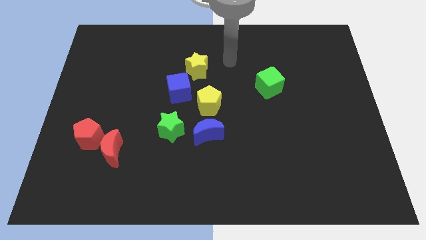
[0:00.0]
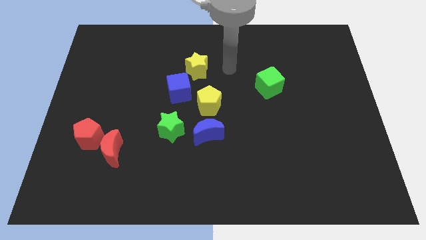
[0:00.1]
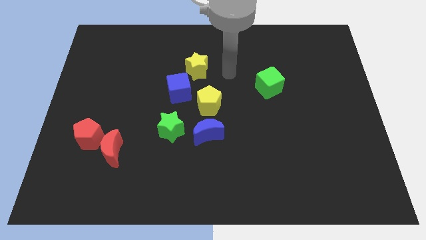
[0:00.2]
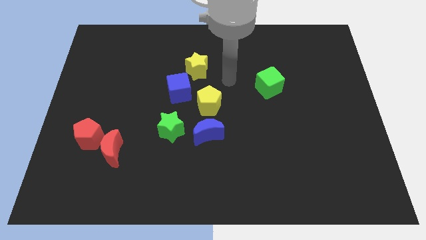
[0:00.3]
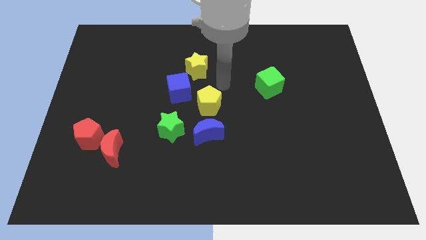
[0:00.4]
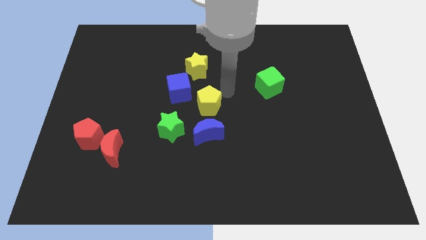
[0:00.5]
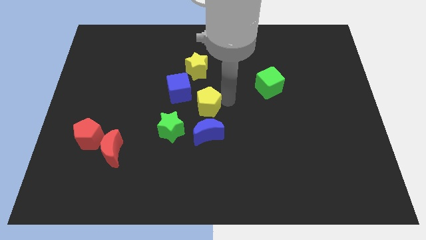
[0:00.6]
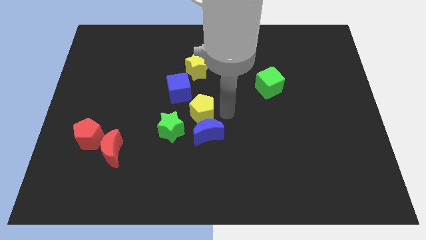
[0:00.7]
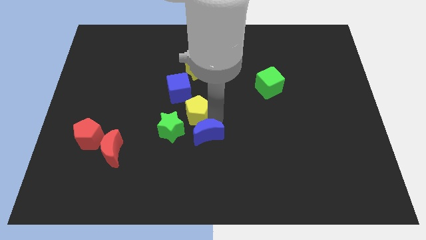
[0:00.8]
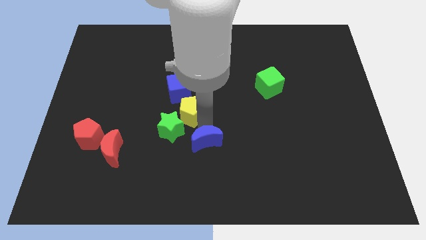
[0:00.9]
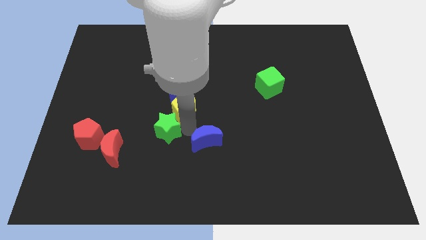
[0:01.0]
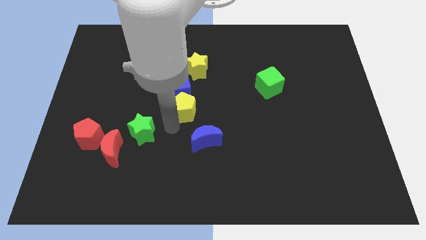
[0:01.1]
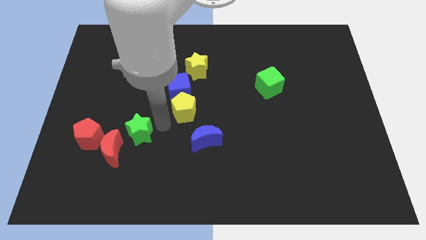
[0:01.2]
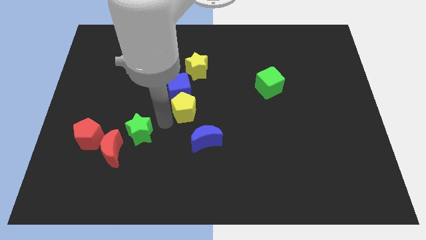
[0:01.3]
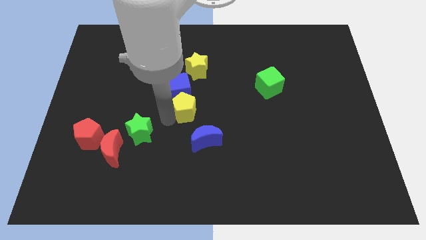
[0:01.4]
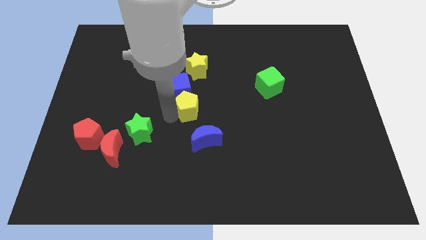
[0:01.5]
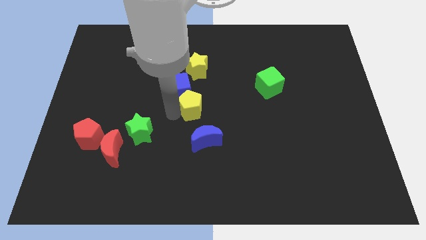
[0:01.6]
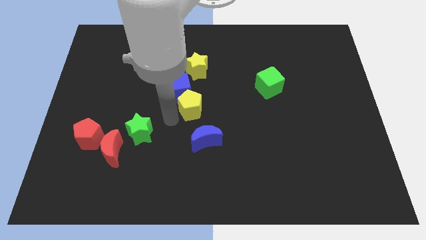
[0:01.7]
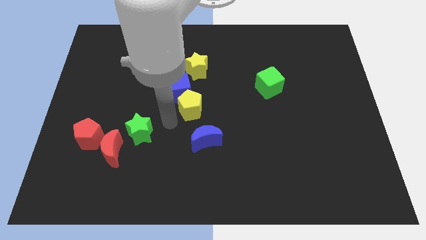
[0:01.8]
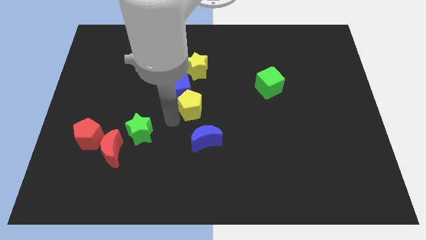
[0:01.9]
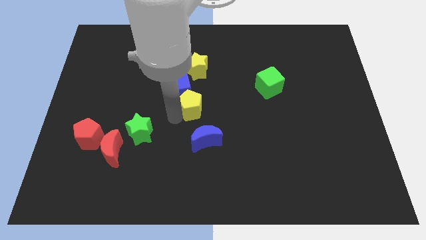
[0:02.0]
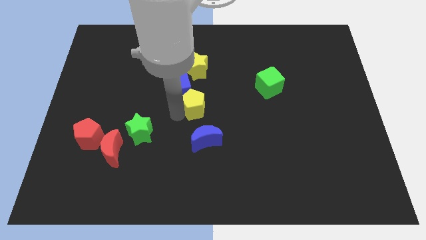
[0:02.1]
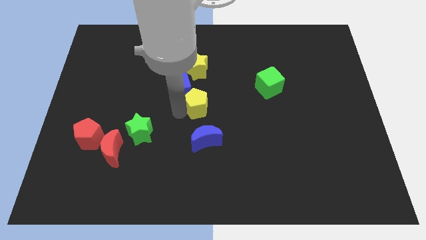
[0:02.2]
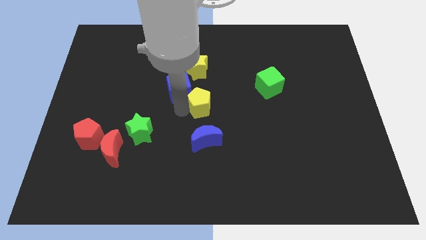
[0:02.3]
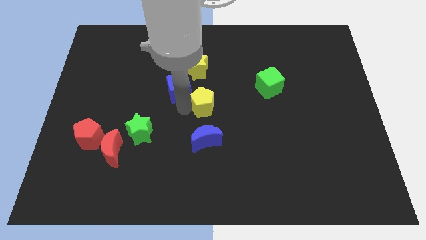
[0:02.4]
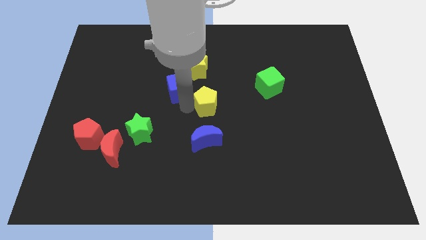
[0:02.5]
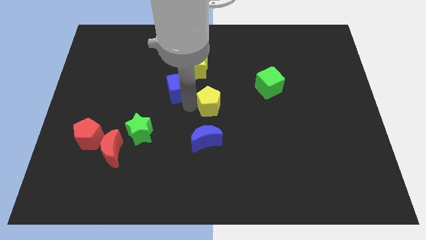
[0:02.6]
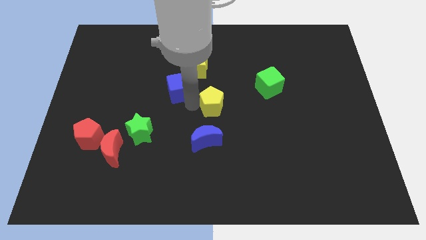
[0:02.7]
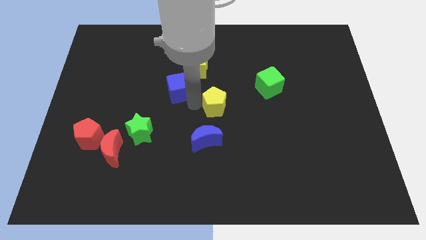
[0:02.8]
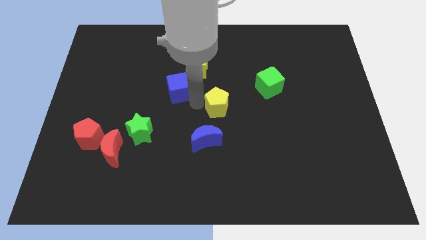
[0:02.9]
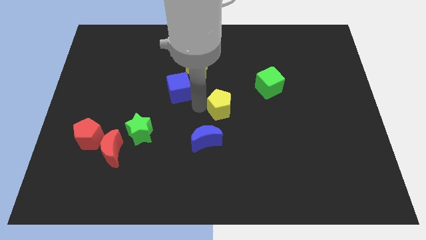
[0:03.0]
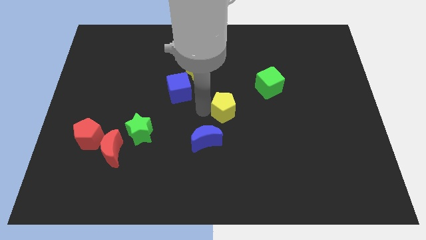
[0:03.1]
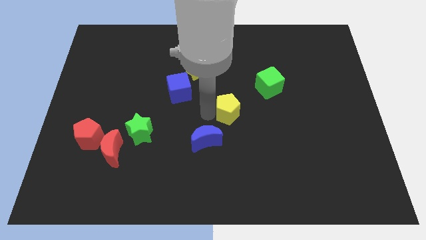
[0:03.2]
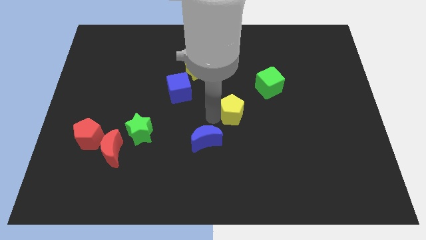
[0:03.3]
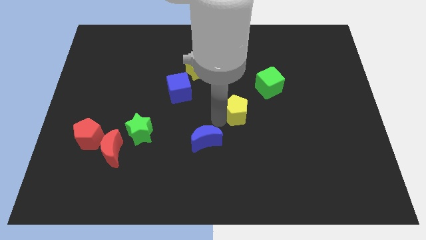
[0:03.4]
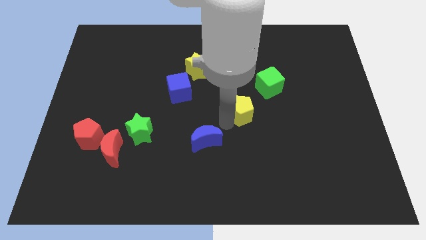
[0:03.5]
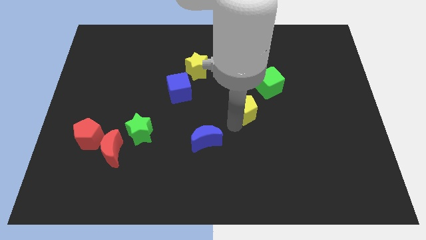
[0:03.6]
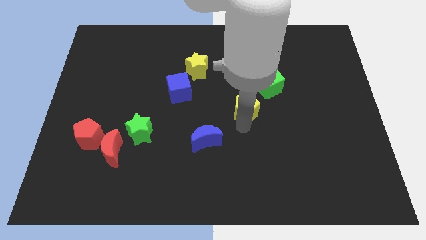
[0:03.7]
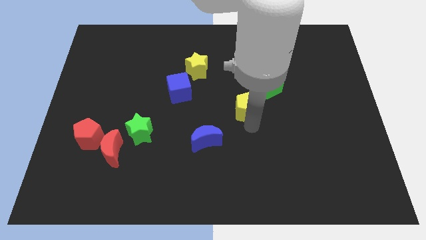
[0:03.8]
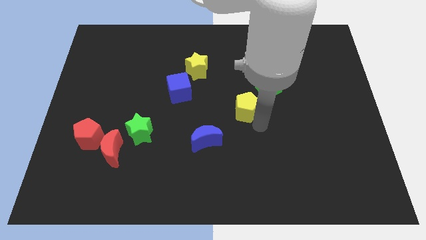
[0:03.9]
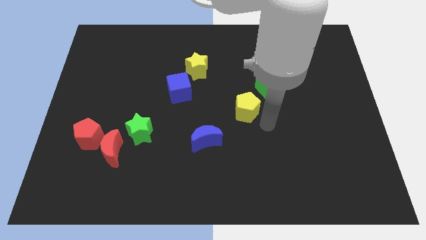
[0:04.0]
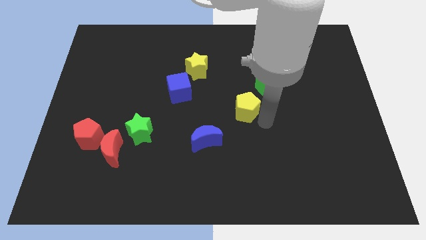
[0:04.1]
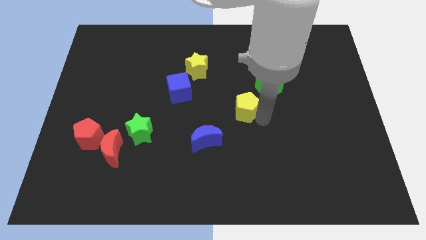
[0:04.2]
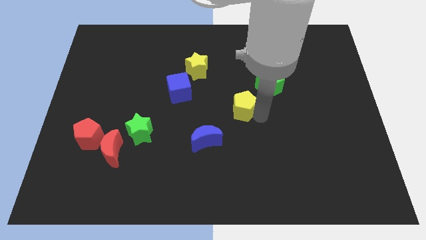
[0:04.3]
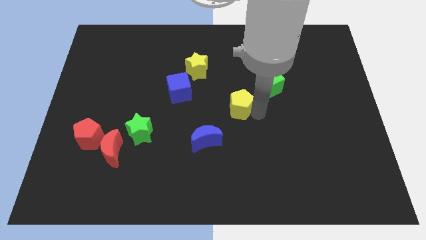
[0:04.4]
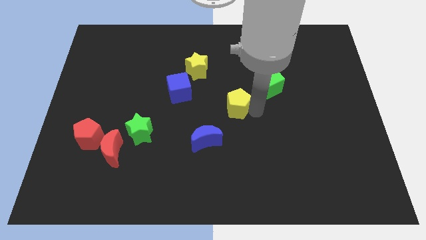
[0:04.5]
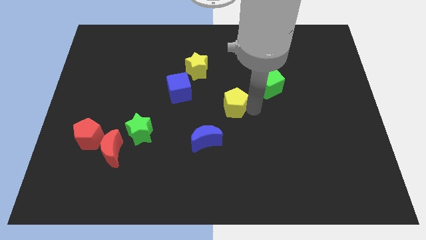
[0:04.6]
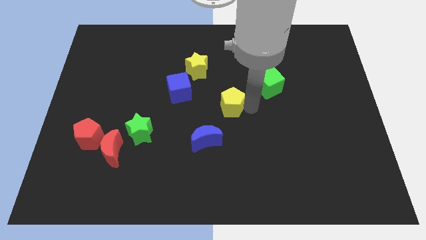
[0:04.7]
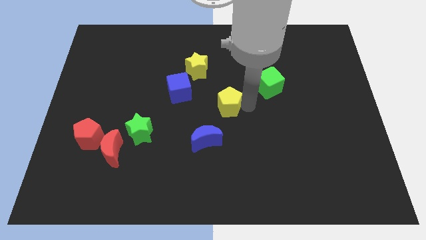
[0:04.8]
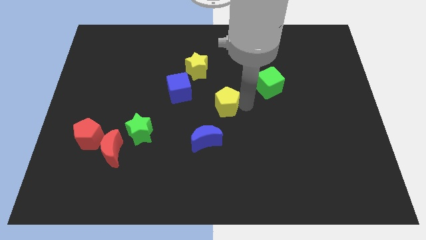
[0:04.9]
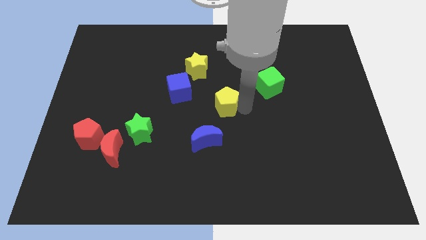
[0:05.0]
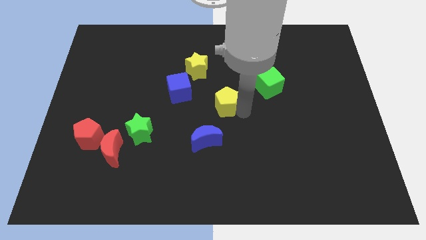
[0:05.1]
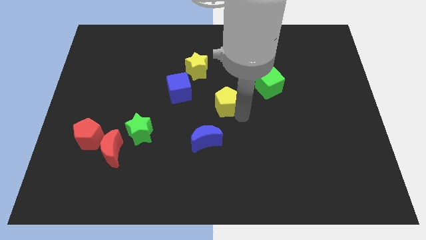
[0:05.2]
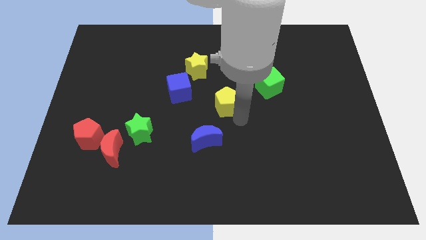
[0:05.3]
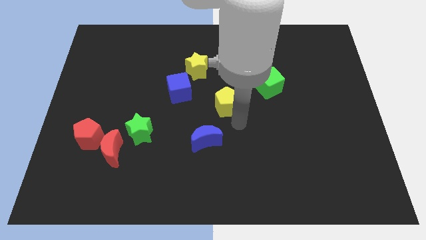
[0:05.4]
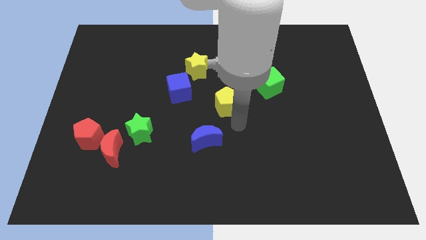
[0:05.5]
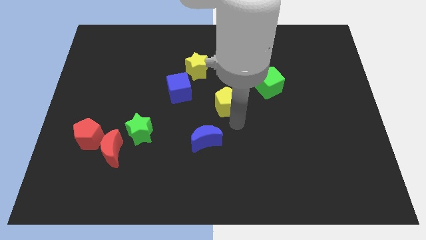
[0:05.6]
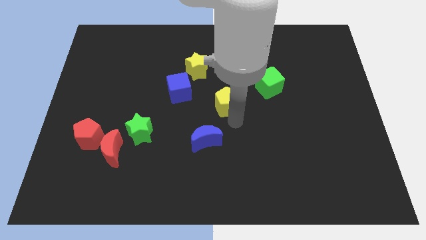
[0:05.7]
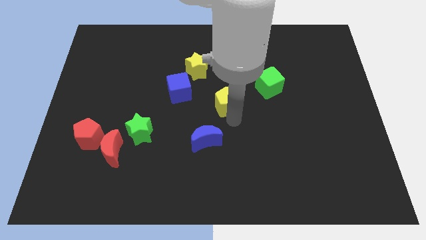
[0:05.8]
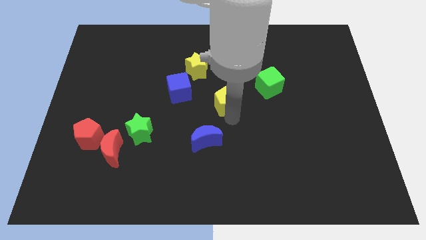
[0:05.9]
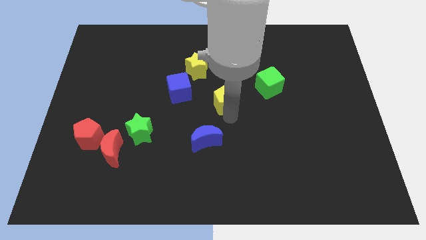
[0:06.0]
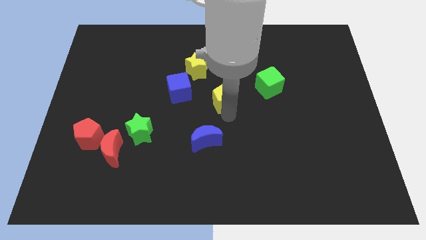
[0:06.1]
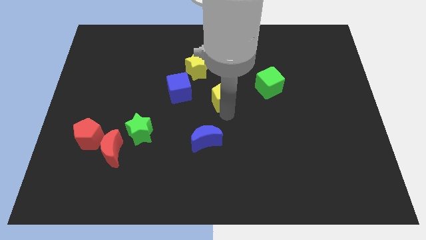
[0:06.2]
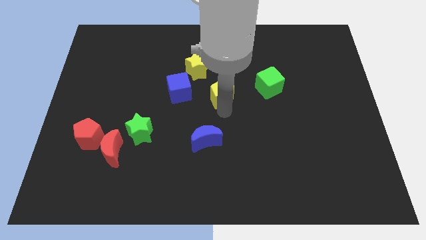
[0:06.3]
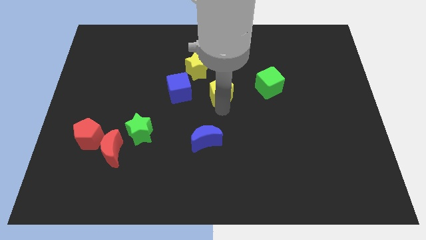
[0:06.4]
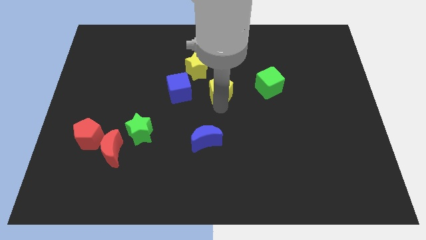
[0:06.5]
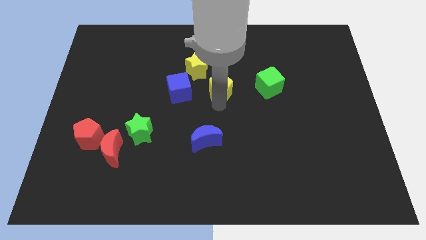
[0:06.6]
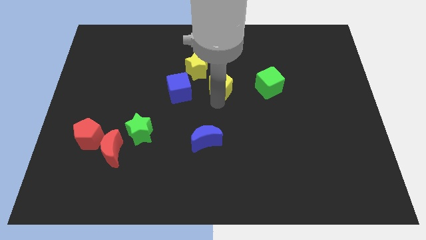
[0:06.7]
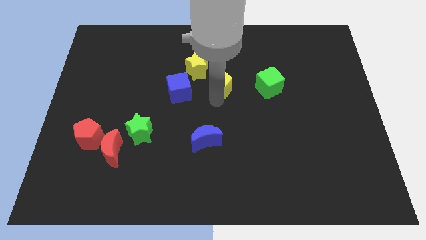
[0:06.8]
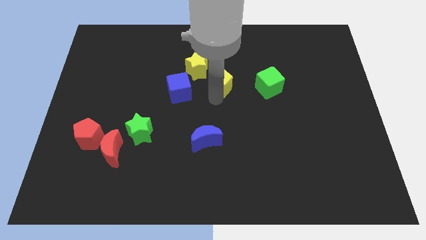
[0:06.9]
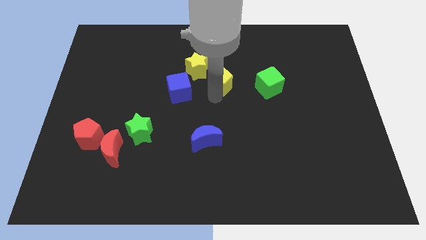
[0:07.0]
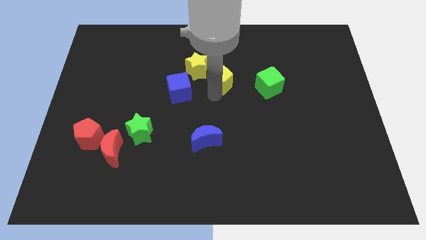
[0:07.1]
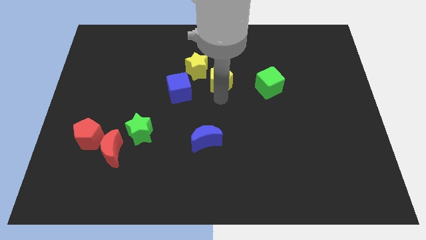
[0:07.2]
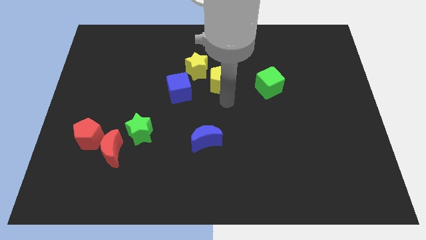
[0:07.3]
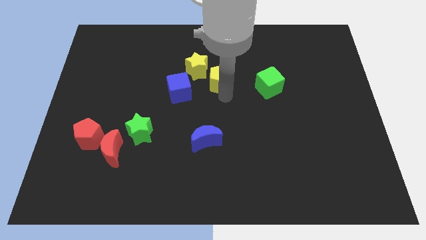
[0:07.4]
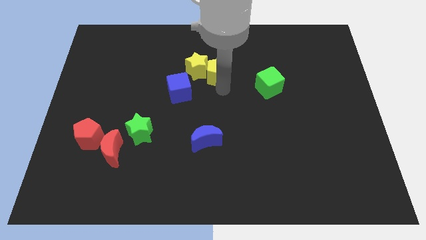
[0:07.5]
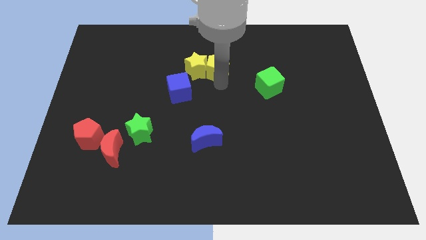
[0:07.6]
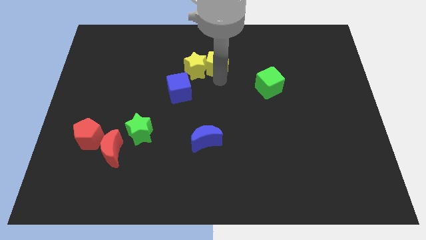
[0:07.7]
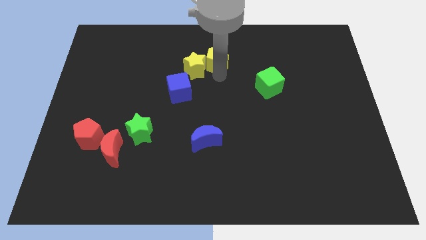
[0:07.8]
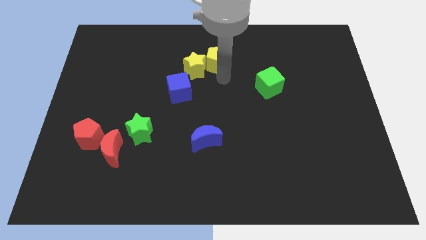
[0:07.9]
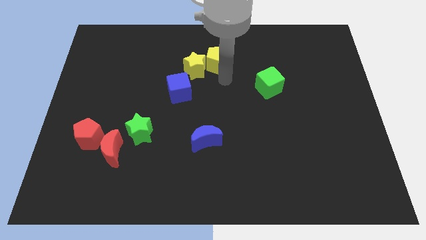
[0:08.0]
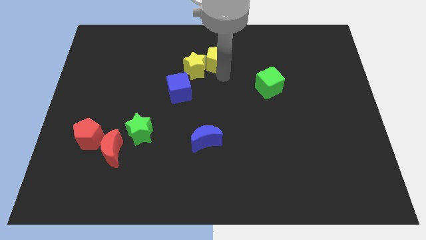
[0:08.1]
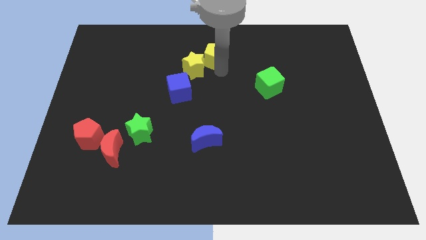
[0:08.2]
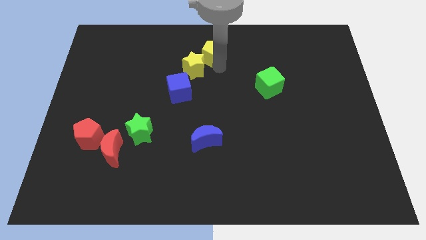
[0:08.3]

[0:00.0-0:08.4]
move the yellow pentagon to the towards your base
